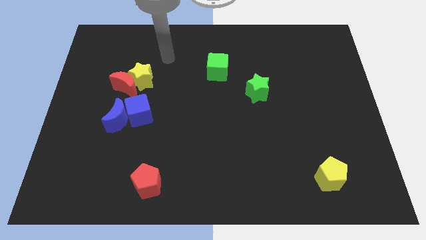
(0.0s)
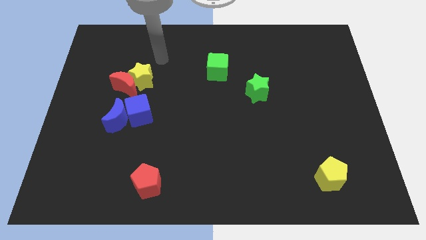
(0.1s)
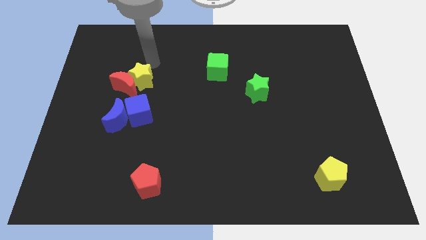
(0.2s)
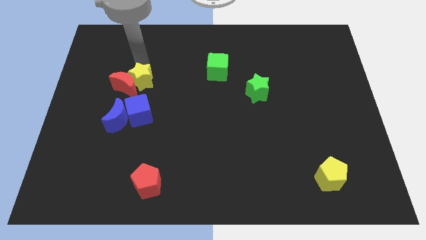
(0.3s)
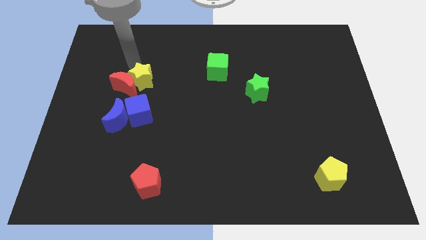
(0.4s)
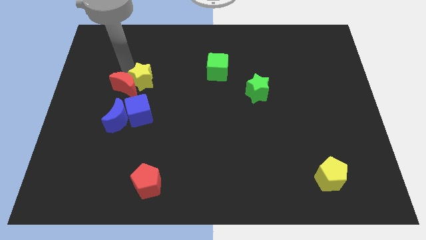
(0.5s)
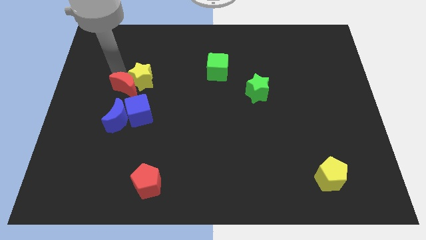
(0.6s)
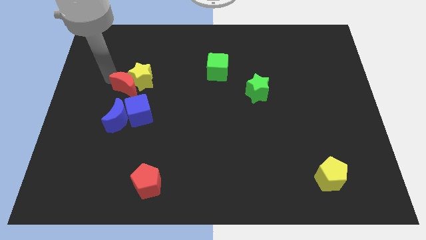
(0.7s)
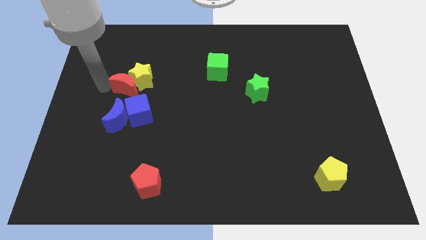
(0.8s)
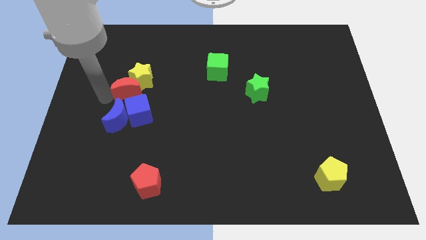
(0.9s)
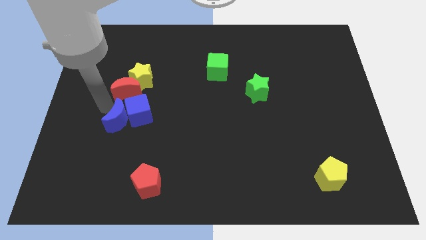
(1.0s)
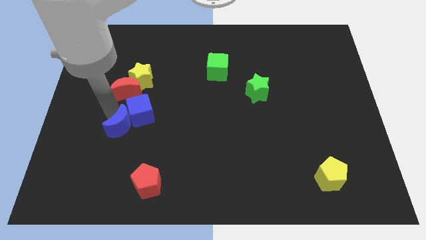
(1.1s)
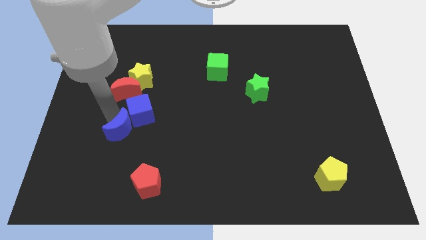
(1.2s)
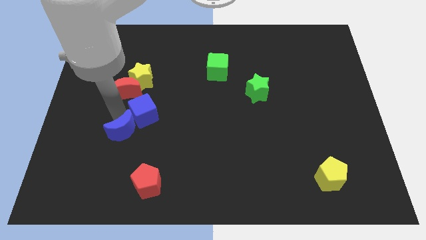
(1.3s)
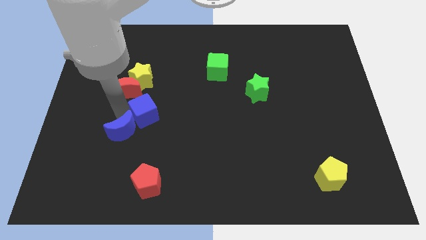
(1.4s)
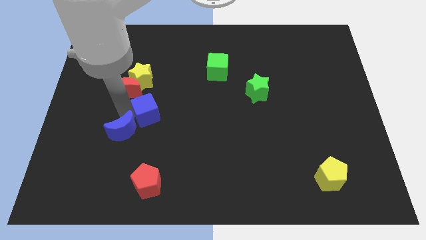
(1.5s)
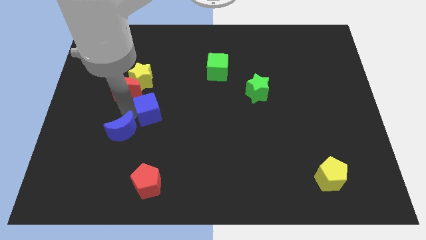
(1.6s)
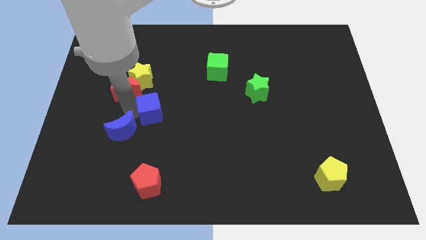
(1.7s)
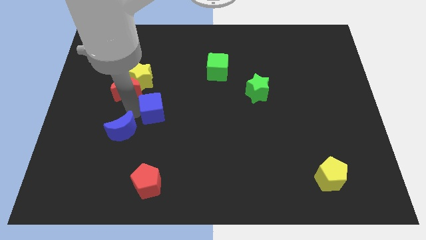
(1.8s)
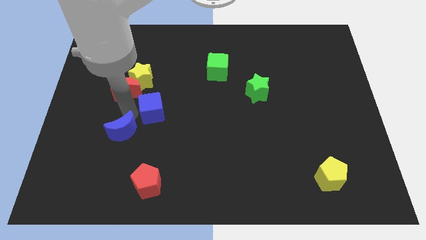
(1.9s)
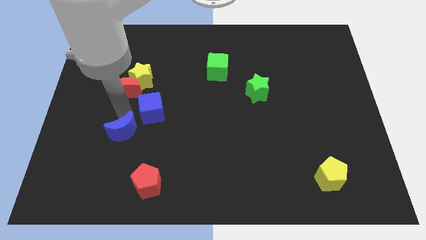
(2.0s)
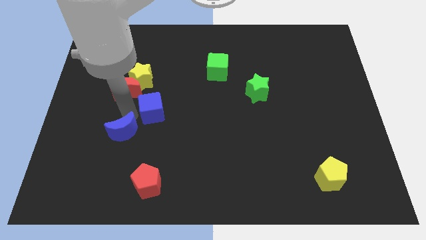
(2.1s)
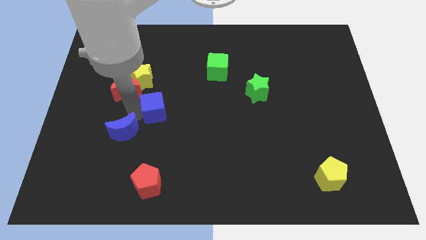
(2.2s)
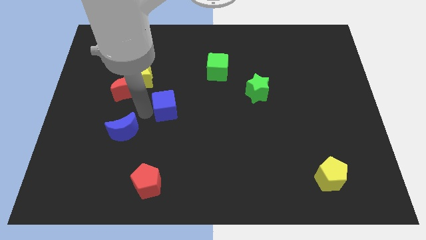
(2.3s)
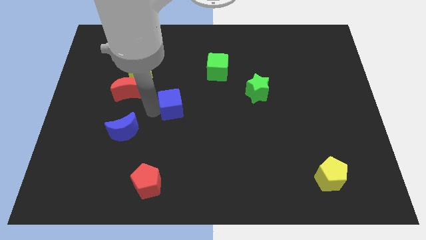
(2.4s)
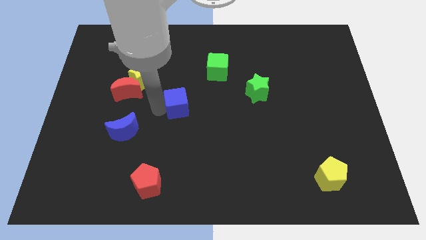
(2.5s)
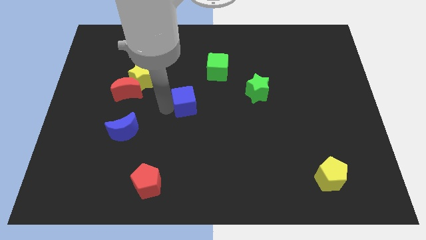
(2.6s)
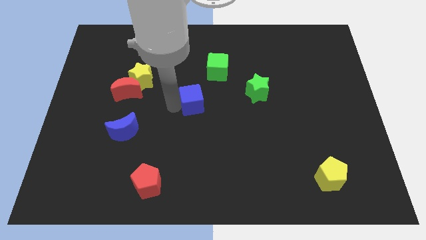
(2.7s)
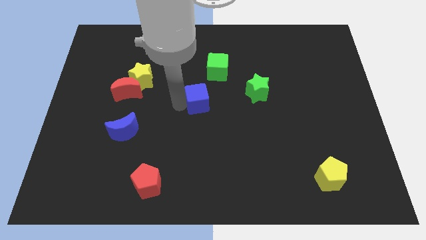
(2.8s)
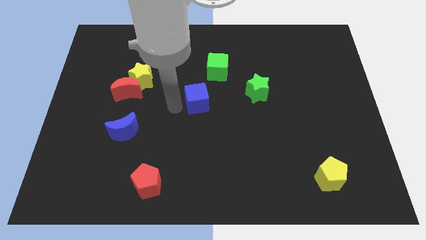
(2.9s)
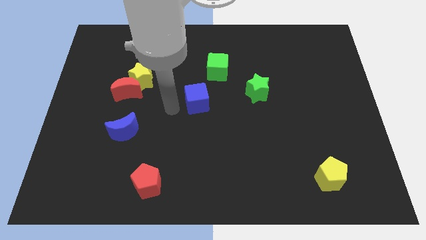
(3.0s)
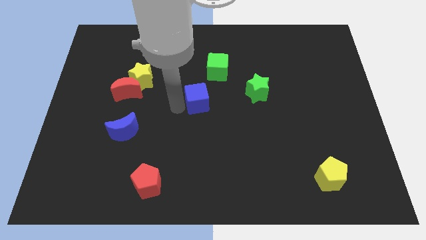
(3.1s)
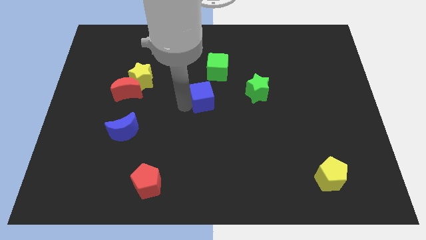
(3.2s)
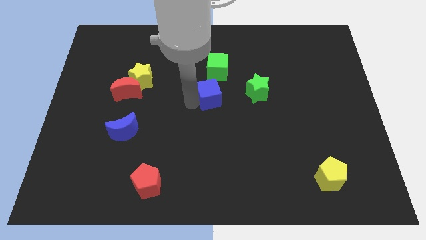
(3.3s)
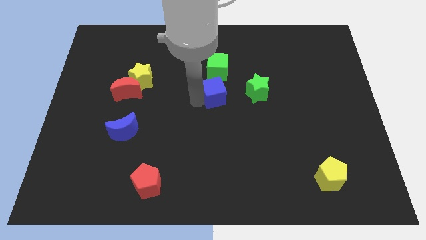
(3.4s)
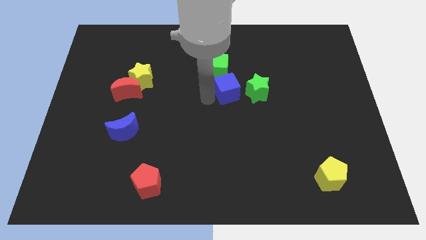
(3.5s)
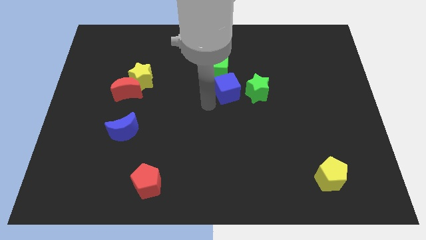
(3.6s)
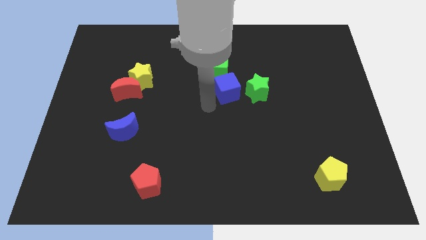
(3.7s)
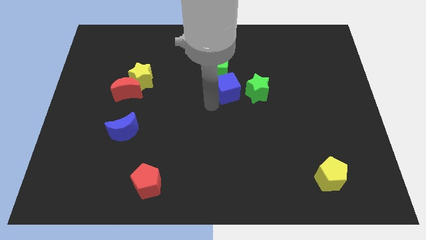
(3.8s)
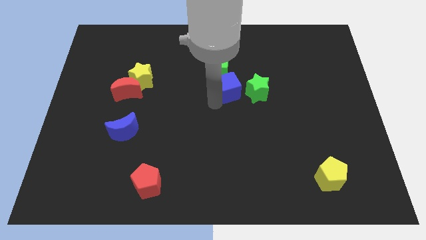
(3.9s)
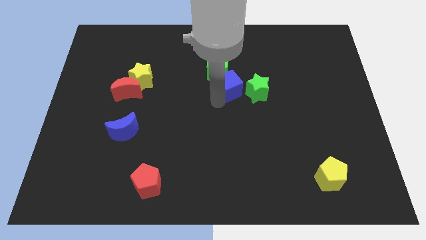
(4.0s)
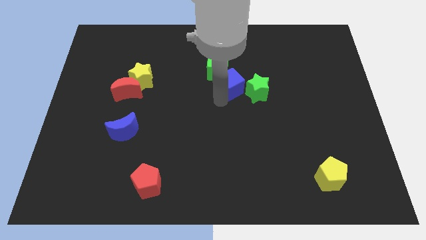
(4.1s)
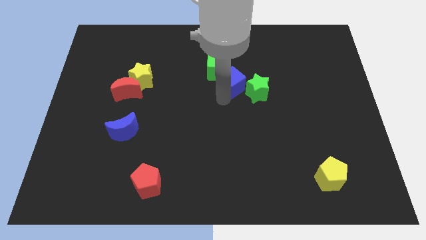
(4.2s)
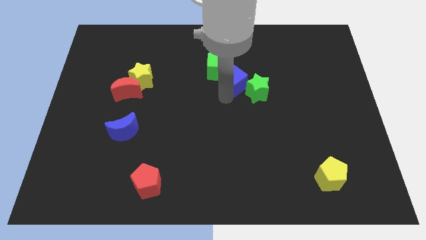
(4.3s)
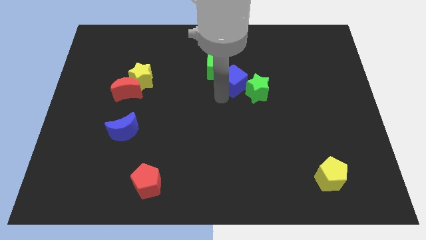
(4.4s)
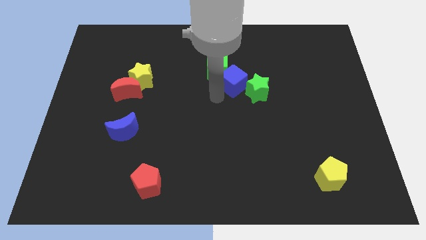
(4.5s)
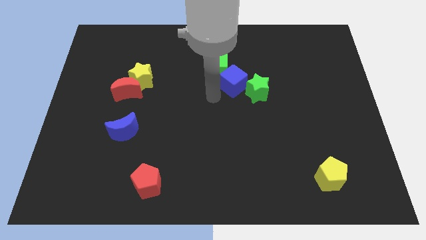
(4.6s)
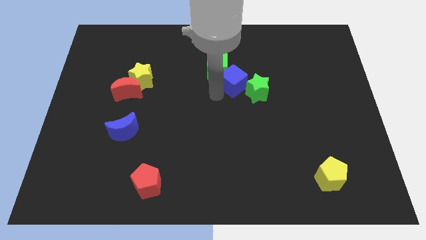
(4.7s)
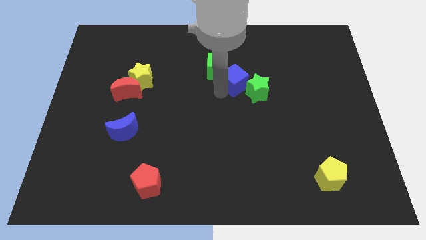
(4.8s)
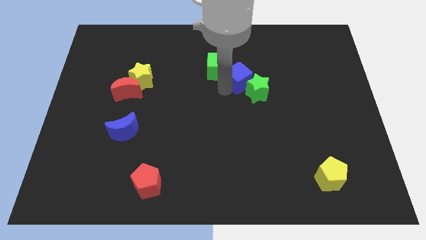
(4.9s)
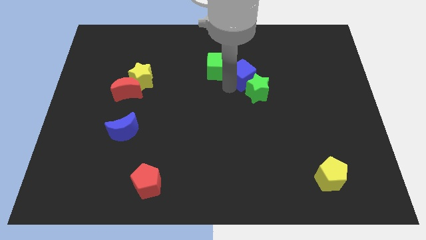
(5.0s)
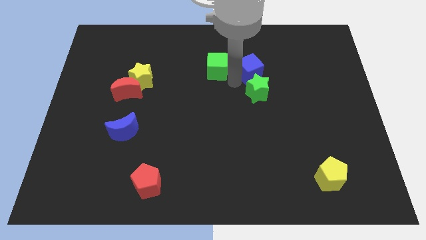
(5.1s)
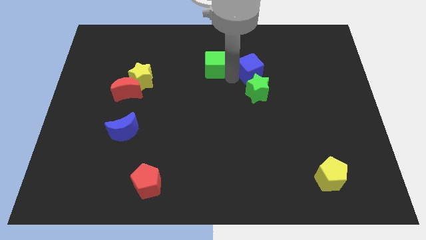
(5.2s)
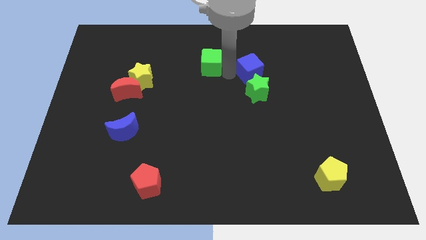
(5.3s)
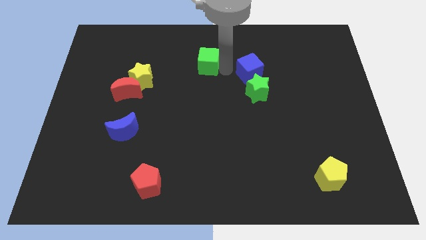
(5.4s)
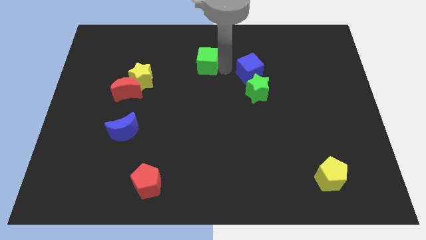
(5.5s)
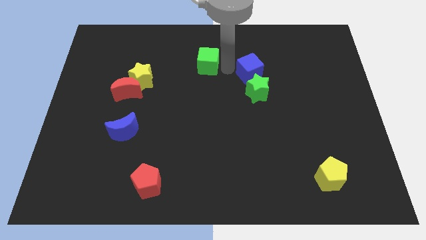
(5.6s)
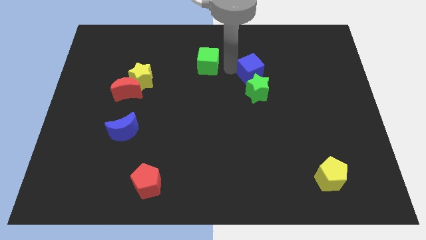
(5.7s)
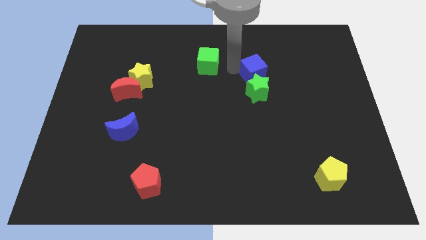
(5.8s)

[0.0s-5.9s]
slide the blue cube to the top right side of the green star

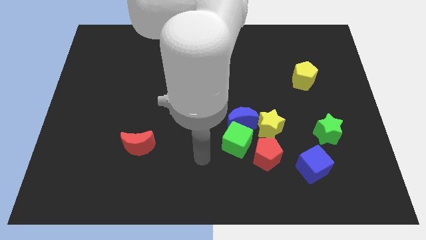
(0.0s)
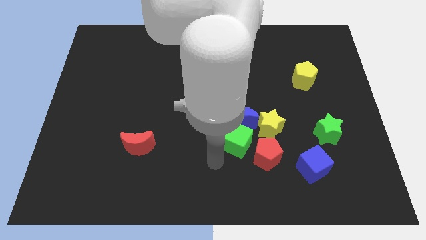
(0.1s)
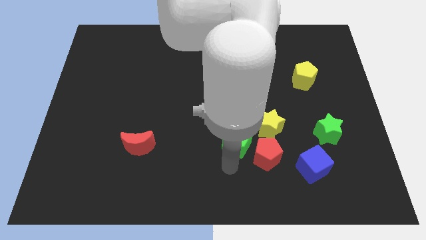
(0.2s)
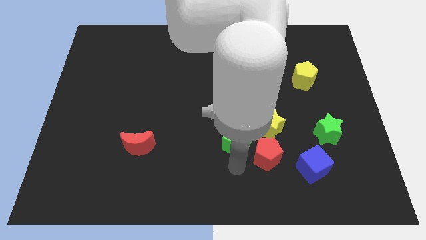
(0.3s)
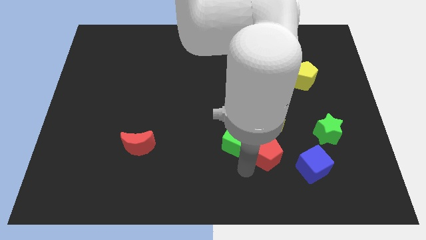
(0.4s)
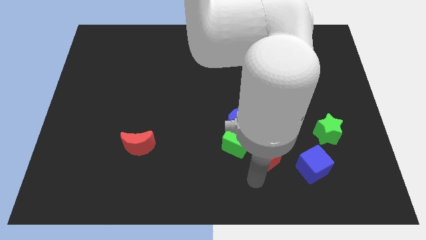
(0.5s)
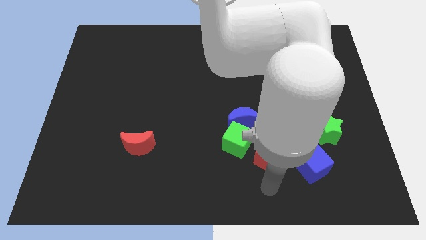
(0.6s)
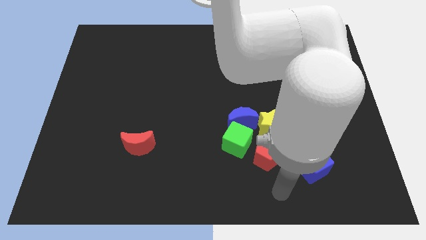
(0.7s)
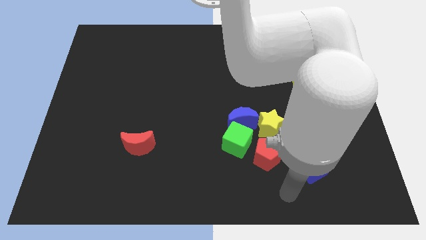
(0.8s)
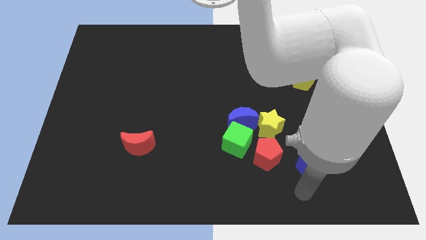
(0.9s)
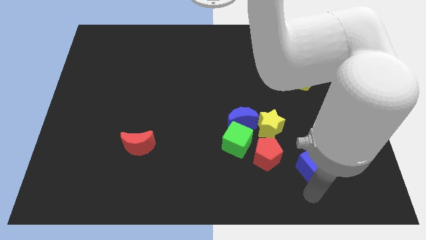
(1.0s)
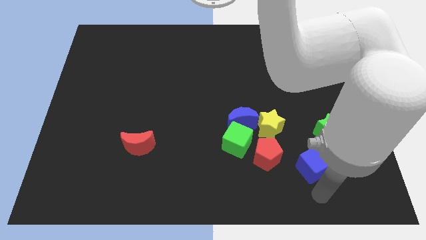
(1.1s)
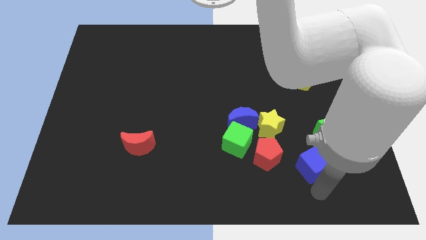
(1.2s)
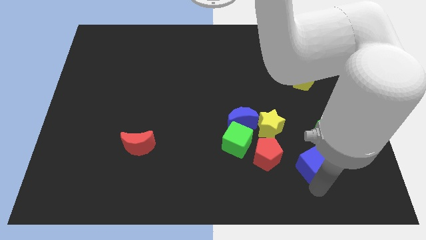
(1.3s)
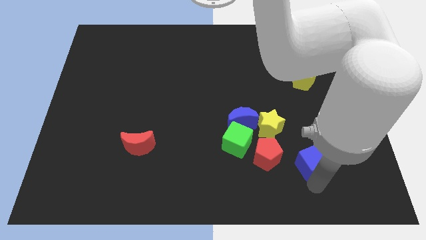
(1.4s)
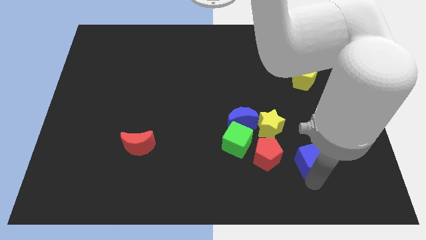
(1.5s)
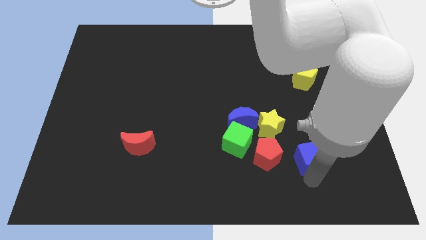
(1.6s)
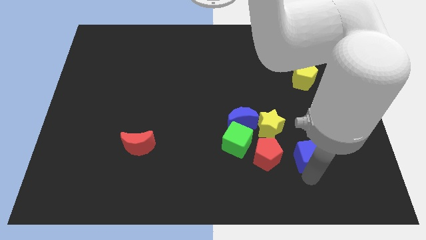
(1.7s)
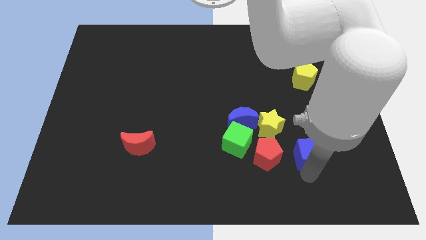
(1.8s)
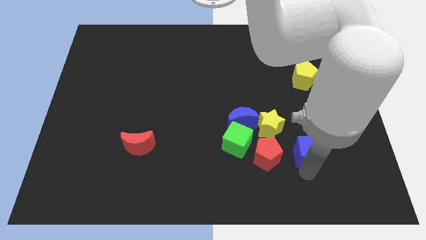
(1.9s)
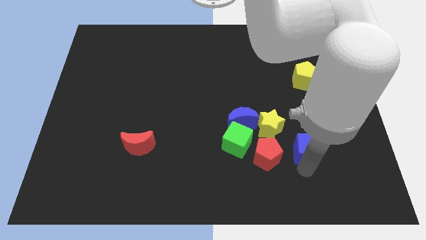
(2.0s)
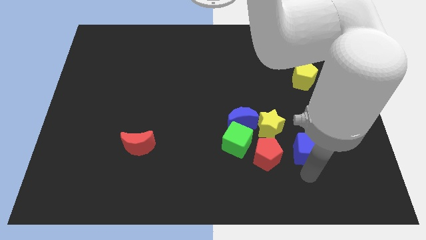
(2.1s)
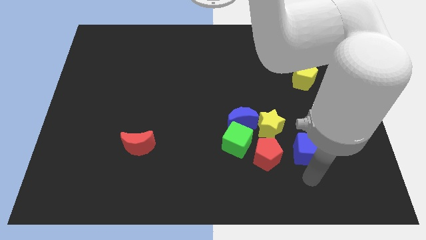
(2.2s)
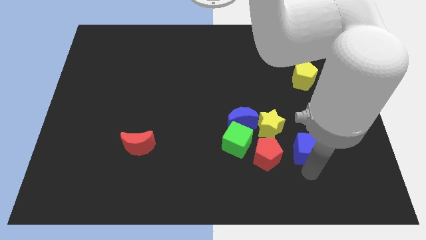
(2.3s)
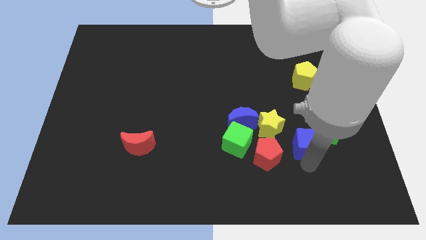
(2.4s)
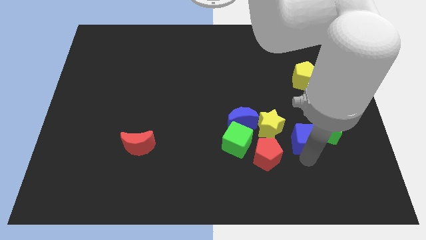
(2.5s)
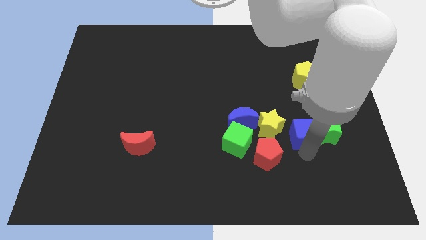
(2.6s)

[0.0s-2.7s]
push the blue cube diagonally up and to the left of the green star
